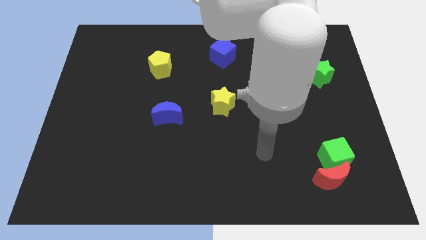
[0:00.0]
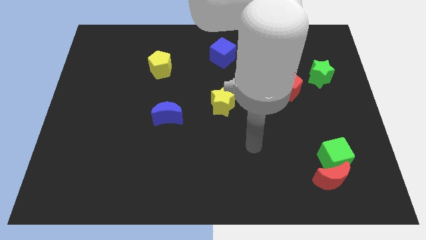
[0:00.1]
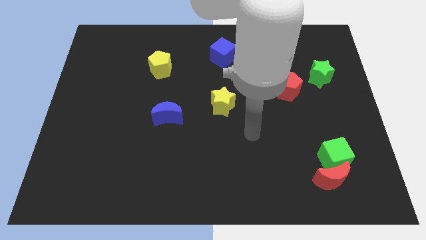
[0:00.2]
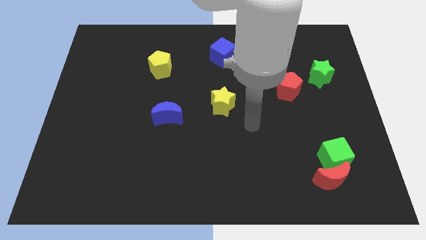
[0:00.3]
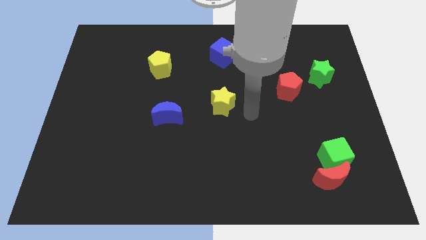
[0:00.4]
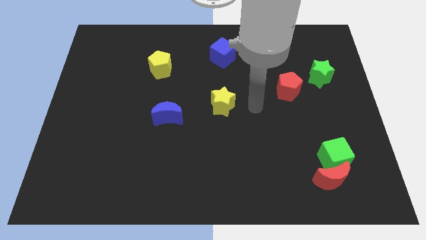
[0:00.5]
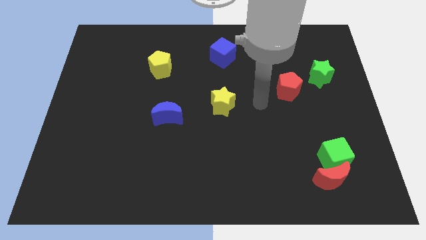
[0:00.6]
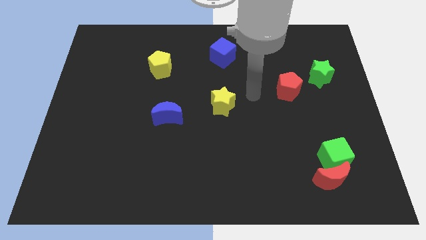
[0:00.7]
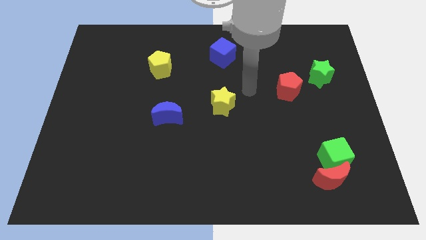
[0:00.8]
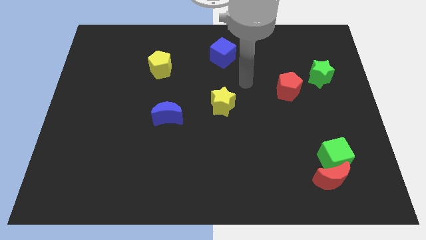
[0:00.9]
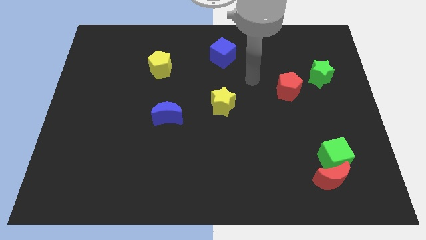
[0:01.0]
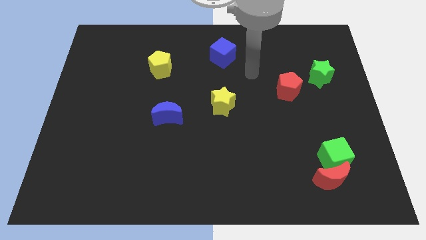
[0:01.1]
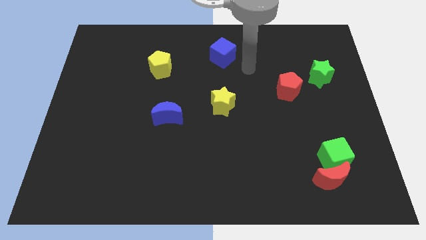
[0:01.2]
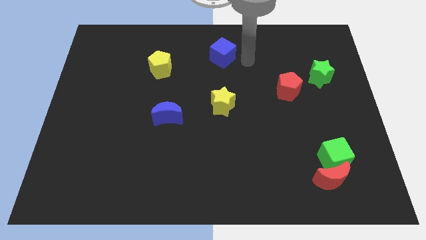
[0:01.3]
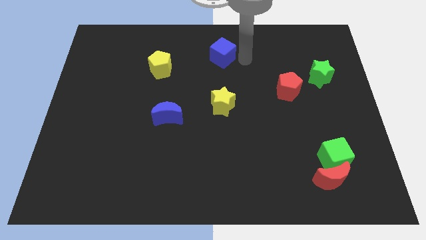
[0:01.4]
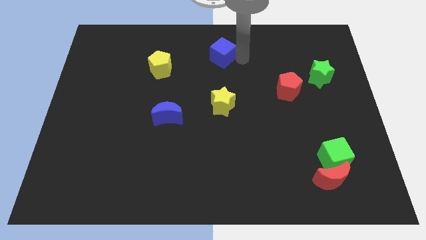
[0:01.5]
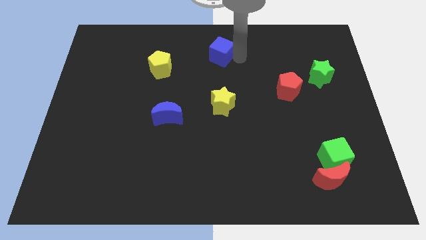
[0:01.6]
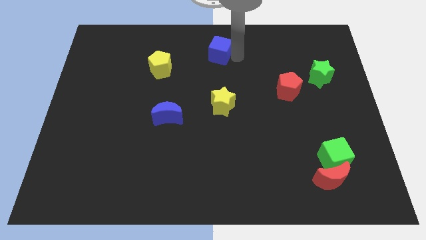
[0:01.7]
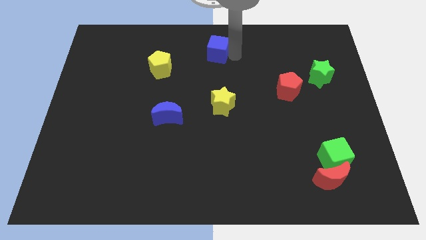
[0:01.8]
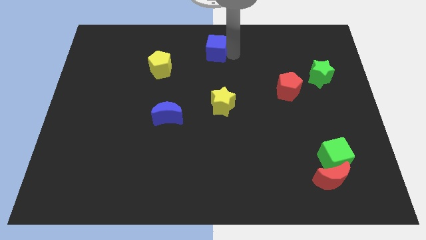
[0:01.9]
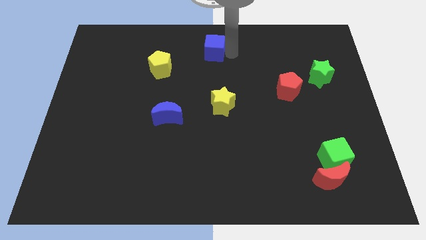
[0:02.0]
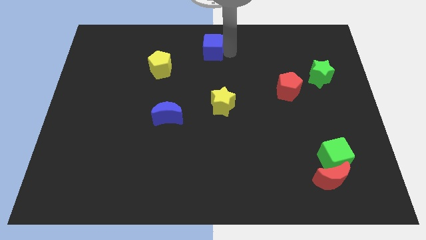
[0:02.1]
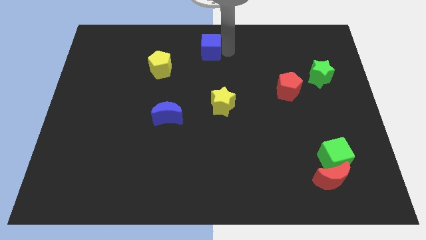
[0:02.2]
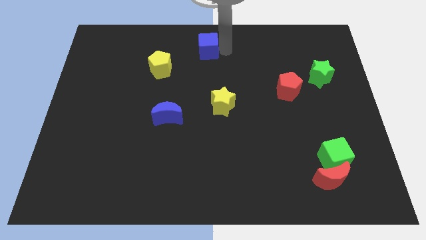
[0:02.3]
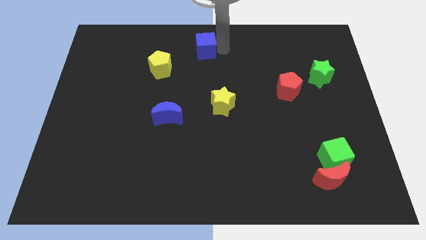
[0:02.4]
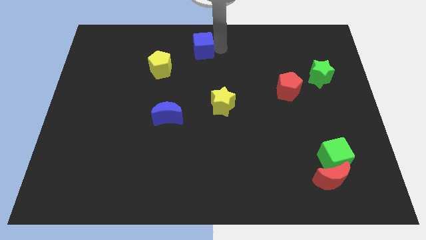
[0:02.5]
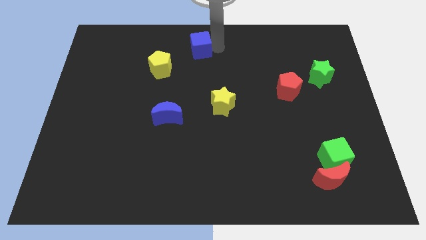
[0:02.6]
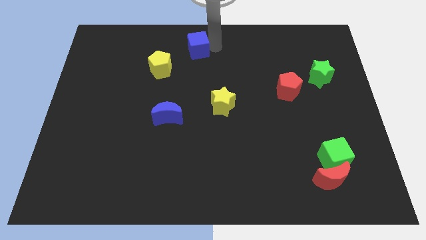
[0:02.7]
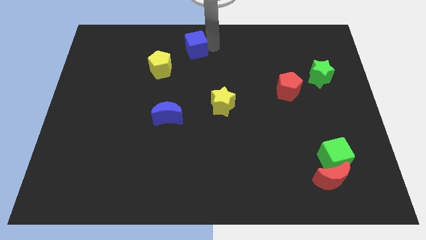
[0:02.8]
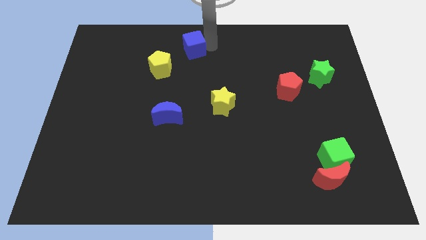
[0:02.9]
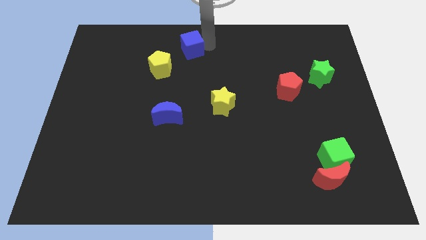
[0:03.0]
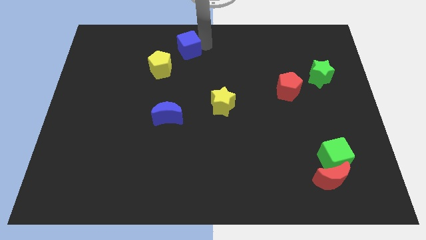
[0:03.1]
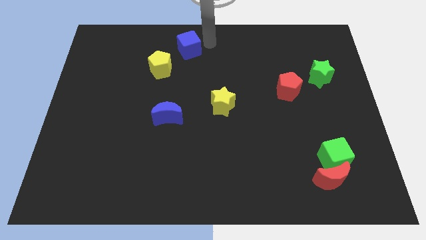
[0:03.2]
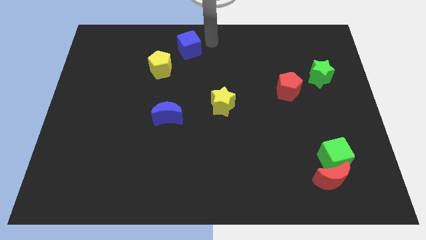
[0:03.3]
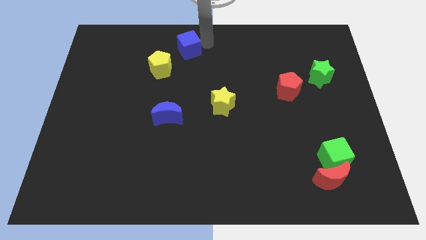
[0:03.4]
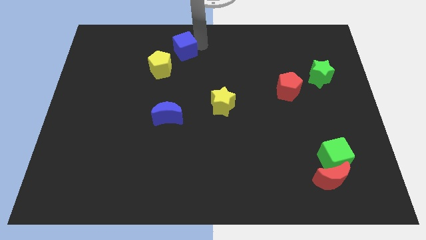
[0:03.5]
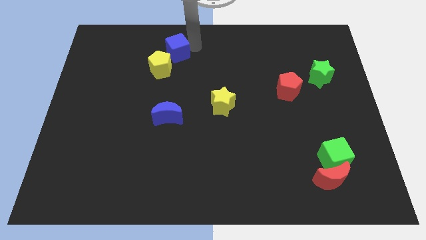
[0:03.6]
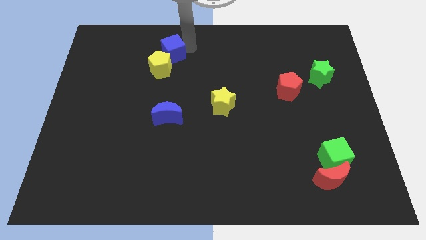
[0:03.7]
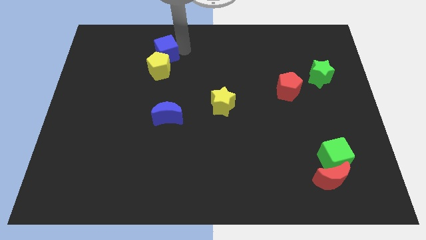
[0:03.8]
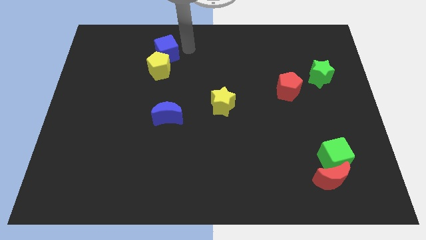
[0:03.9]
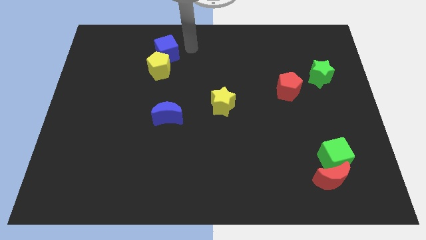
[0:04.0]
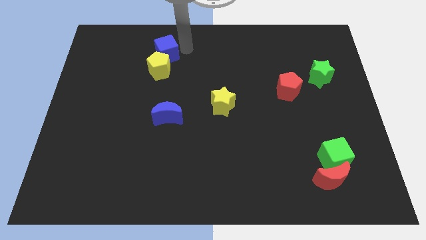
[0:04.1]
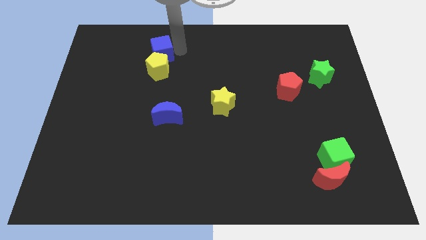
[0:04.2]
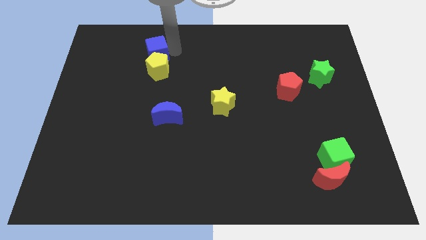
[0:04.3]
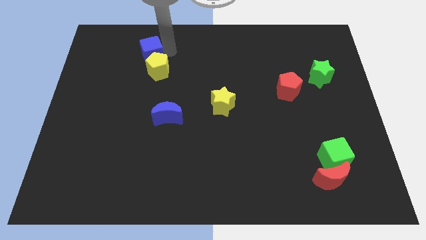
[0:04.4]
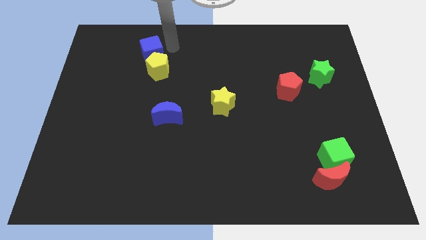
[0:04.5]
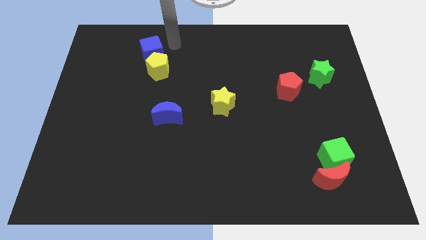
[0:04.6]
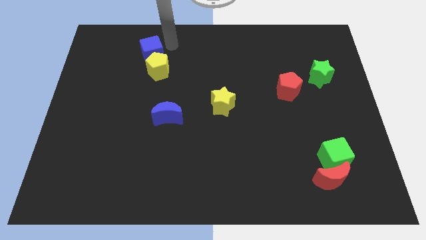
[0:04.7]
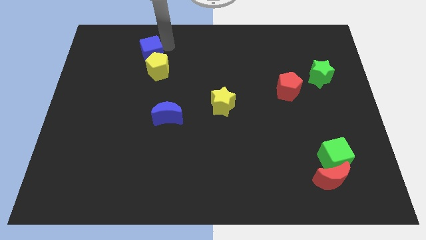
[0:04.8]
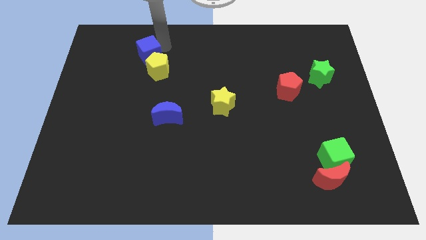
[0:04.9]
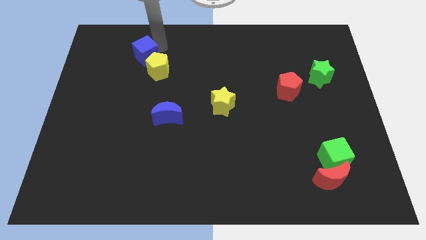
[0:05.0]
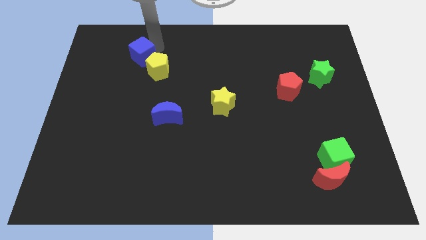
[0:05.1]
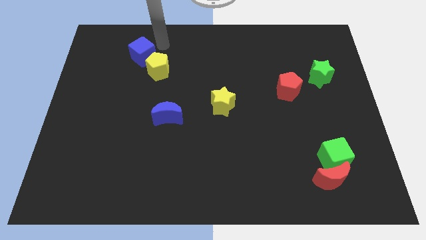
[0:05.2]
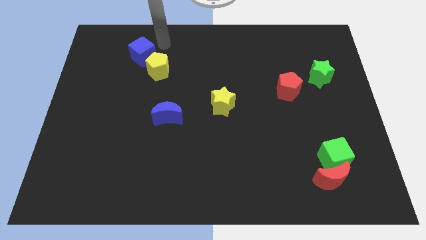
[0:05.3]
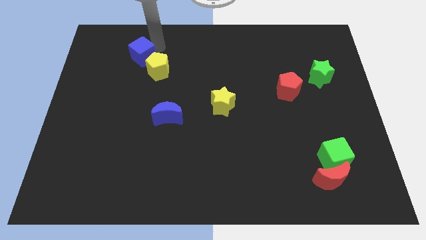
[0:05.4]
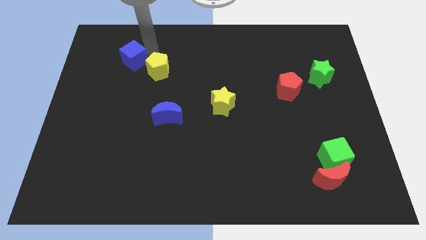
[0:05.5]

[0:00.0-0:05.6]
put the blue cube just left of the yellow pentagon

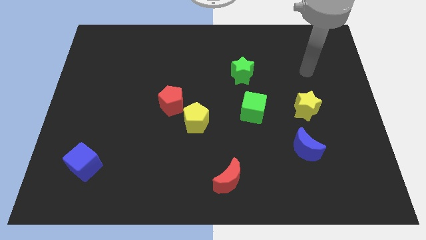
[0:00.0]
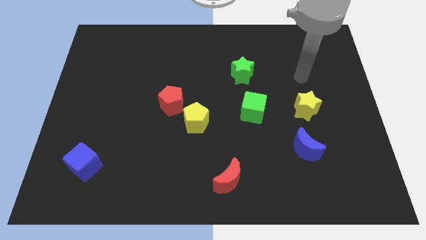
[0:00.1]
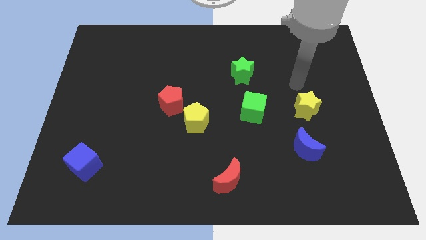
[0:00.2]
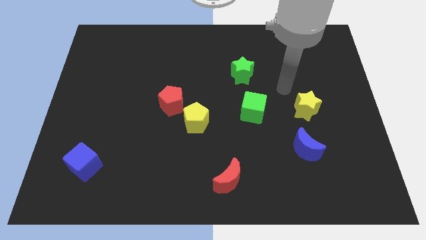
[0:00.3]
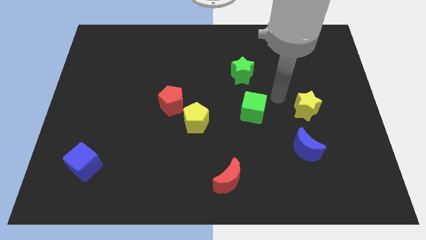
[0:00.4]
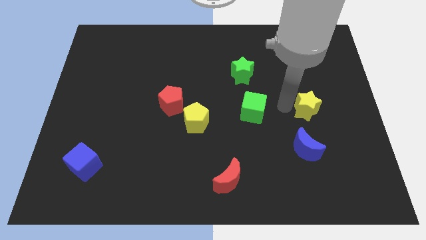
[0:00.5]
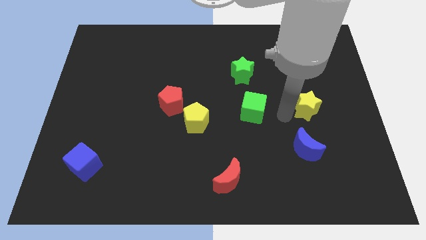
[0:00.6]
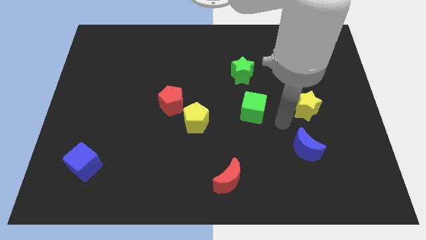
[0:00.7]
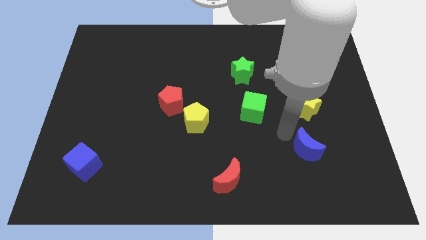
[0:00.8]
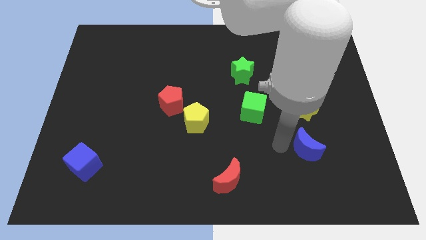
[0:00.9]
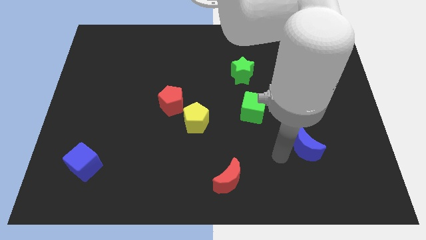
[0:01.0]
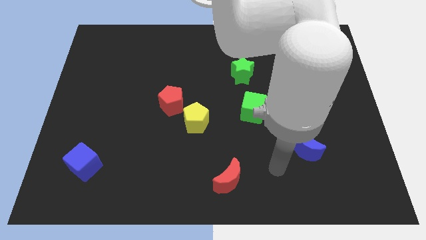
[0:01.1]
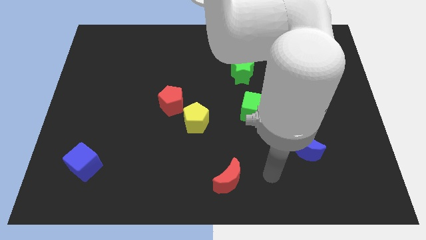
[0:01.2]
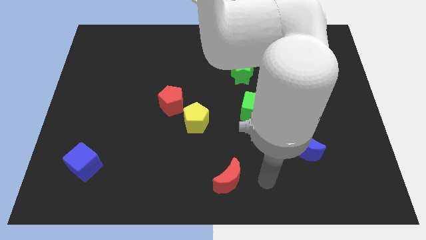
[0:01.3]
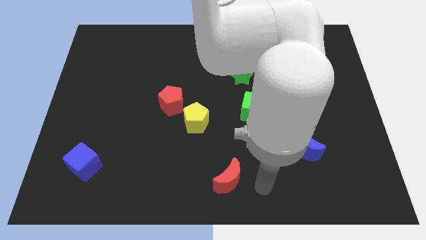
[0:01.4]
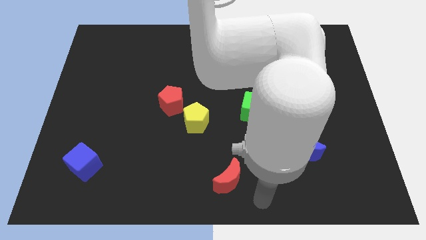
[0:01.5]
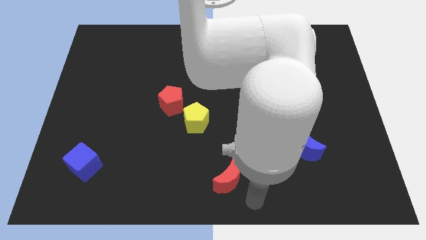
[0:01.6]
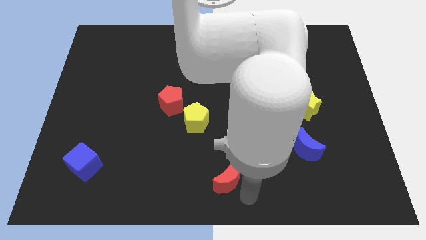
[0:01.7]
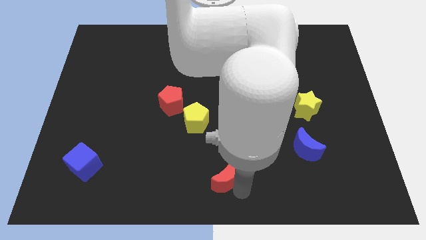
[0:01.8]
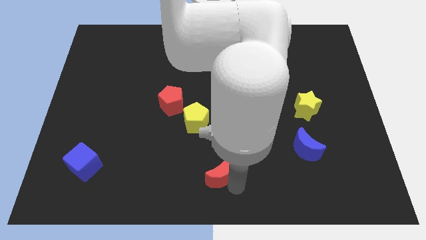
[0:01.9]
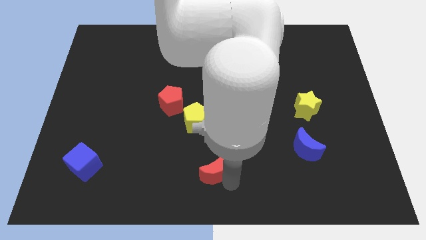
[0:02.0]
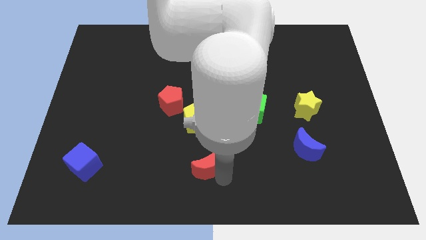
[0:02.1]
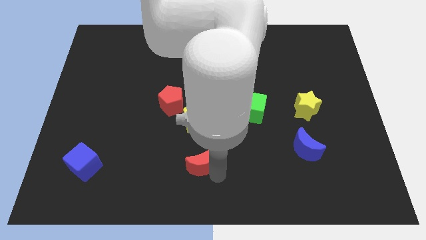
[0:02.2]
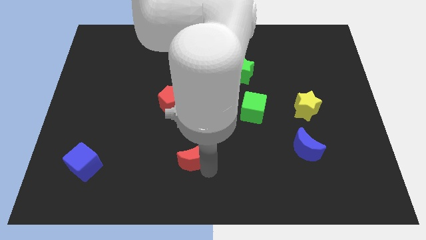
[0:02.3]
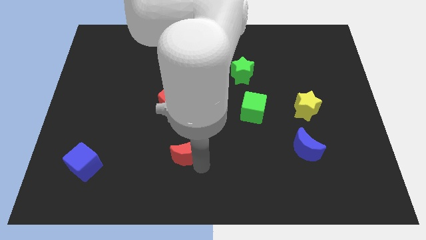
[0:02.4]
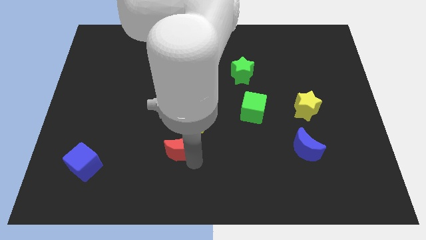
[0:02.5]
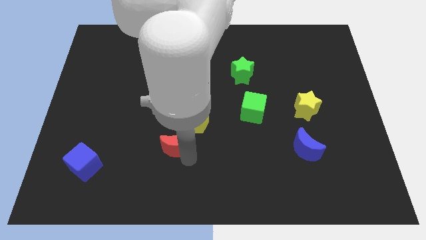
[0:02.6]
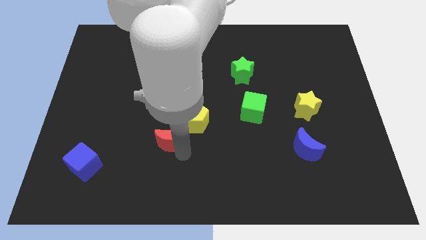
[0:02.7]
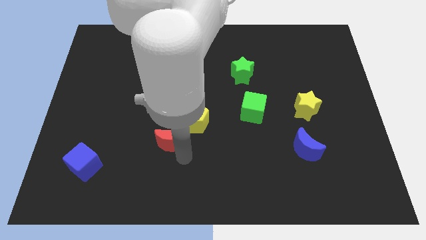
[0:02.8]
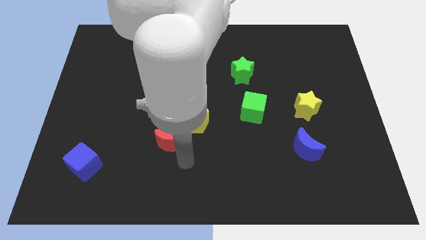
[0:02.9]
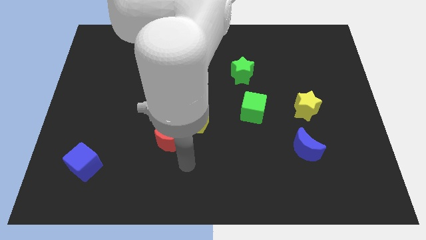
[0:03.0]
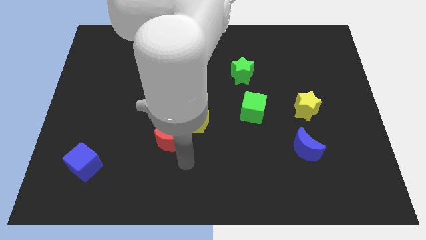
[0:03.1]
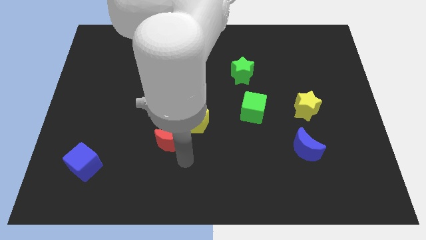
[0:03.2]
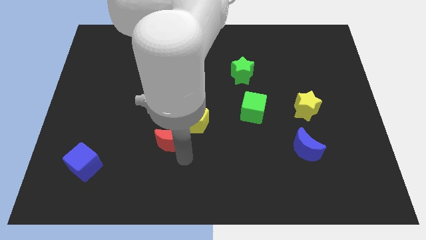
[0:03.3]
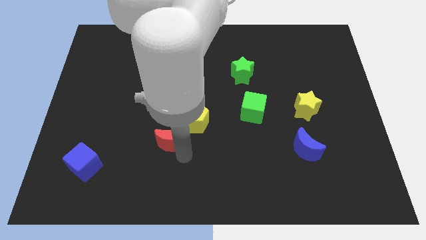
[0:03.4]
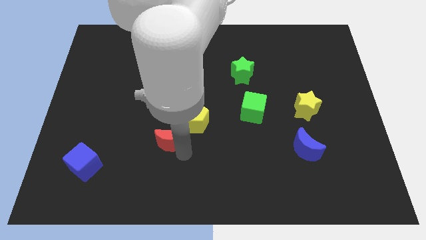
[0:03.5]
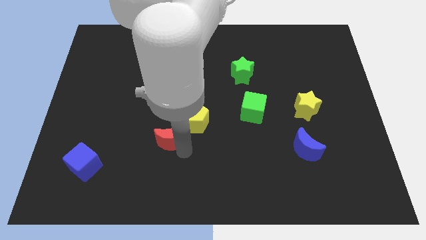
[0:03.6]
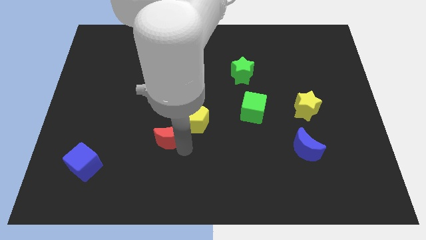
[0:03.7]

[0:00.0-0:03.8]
put the red moon to the left side of the yellow pentagon
